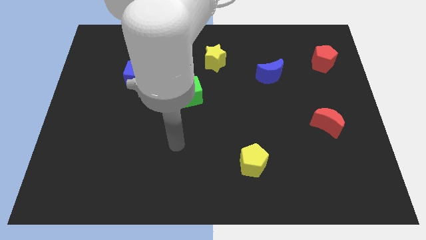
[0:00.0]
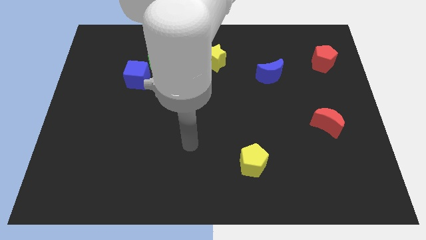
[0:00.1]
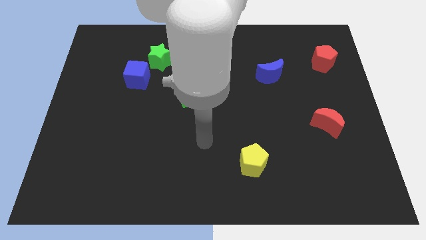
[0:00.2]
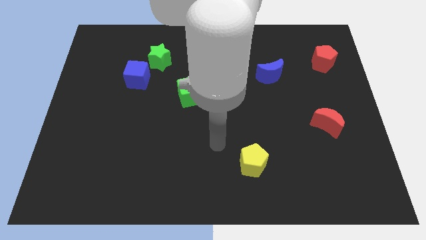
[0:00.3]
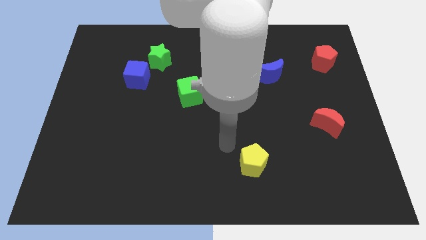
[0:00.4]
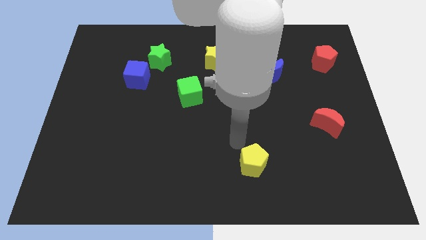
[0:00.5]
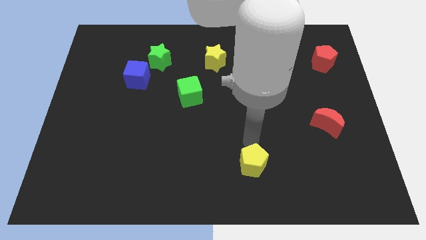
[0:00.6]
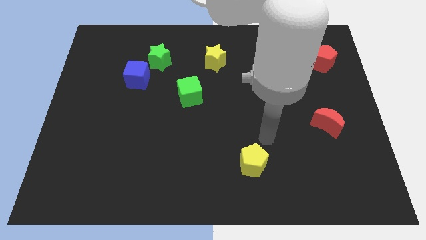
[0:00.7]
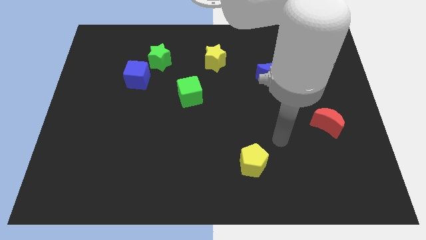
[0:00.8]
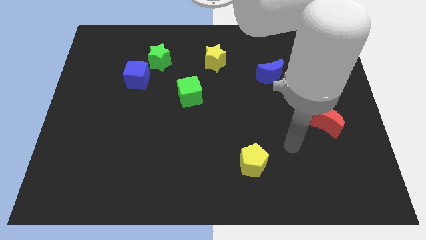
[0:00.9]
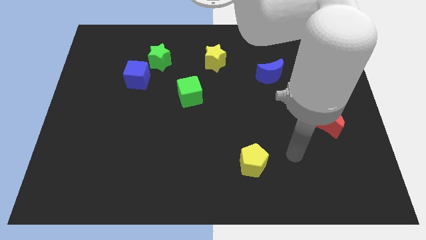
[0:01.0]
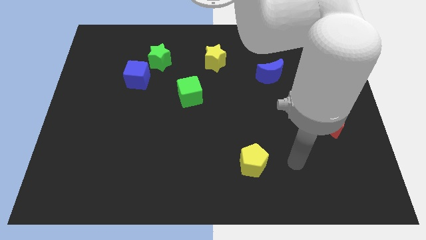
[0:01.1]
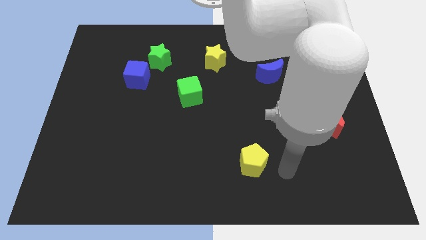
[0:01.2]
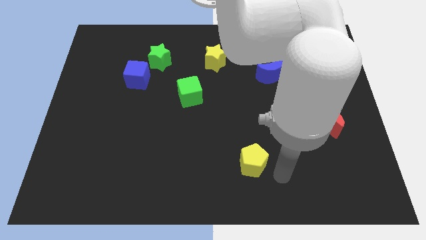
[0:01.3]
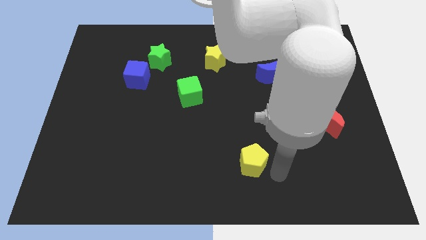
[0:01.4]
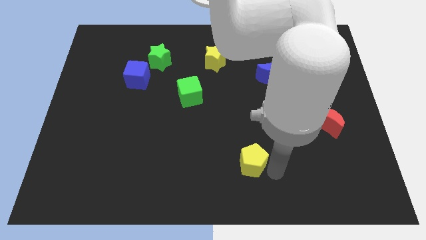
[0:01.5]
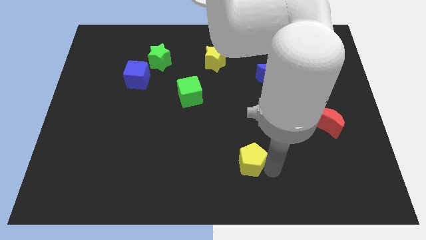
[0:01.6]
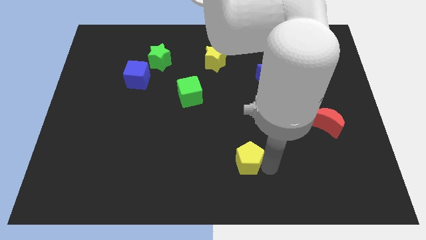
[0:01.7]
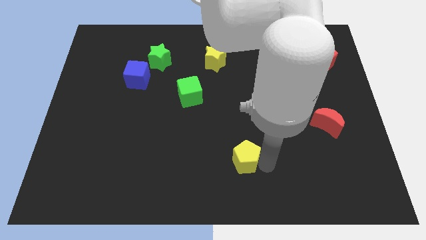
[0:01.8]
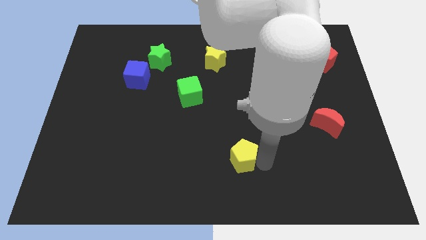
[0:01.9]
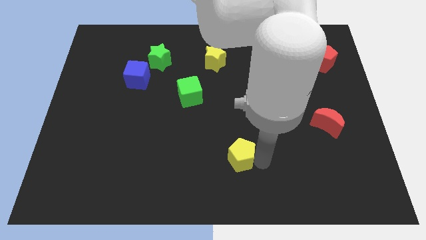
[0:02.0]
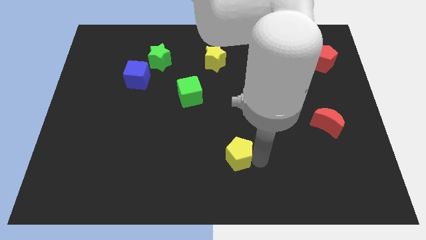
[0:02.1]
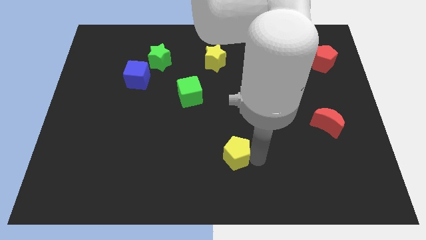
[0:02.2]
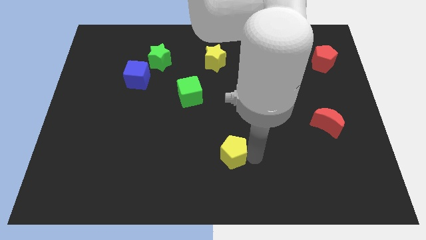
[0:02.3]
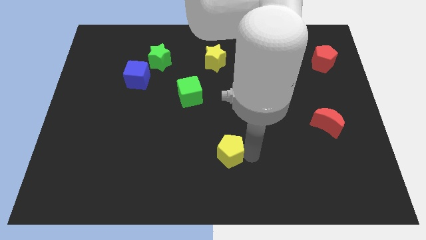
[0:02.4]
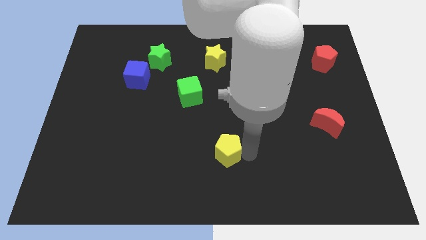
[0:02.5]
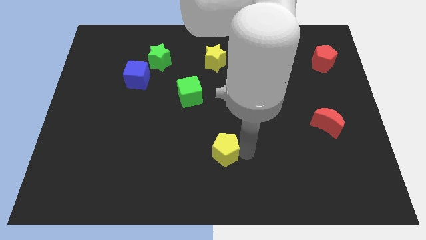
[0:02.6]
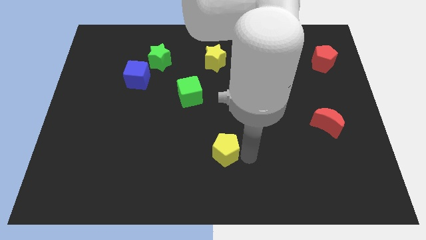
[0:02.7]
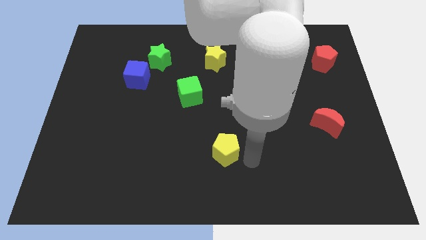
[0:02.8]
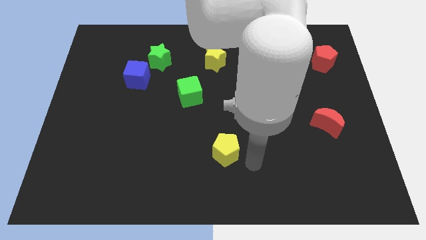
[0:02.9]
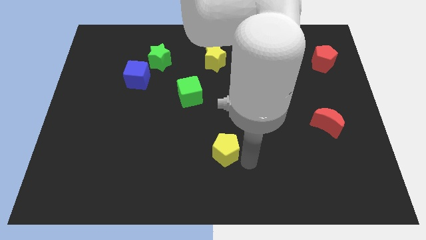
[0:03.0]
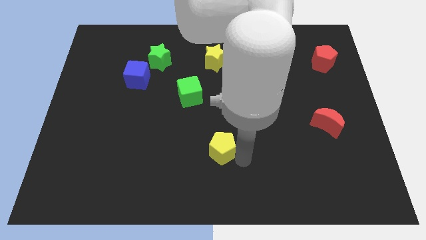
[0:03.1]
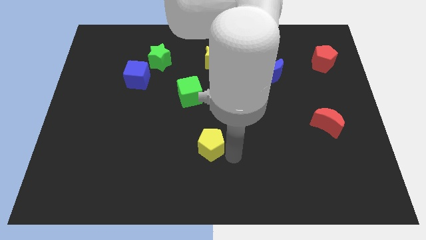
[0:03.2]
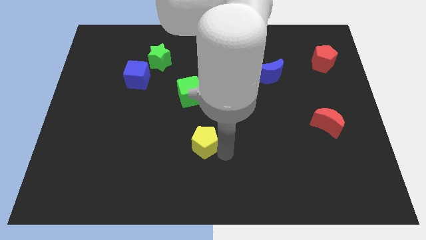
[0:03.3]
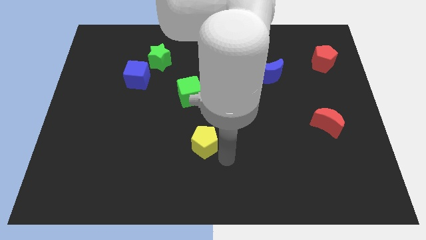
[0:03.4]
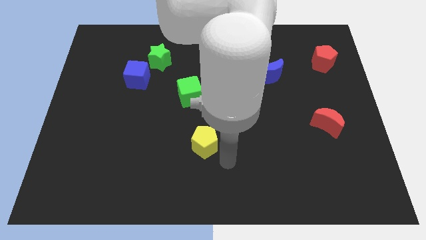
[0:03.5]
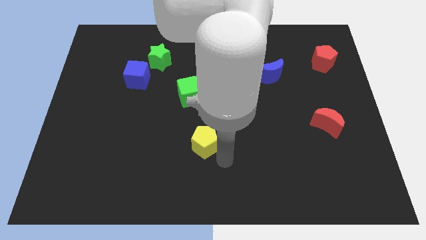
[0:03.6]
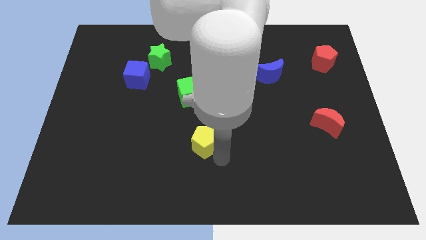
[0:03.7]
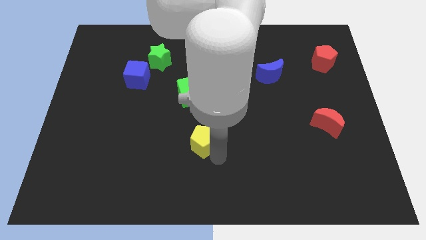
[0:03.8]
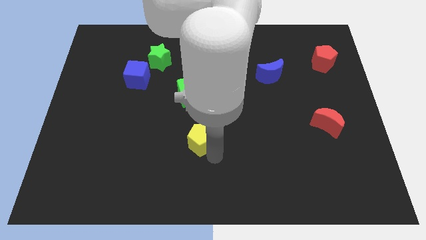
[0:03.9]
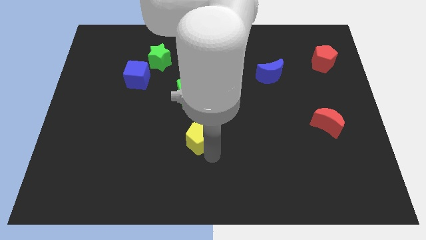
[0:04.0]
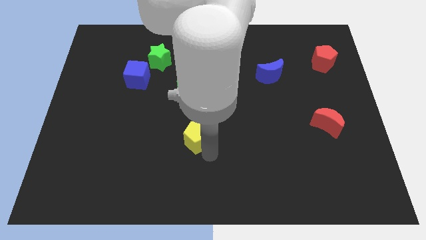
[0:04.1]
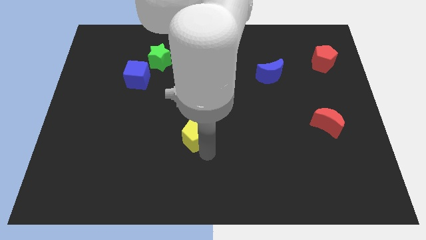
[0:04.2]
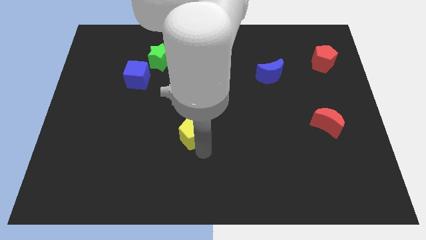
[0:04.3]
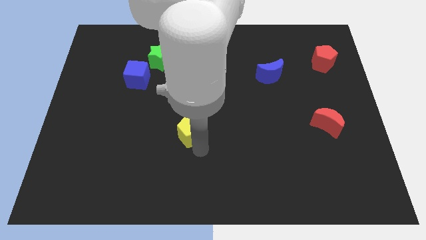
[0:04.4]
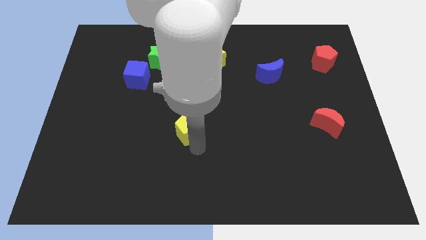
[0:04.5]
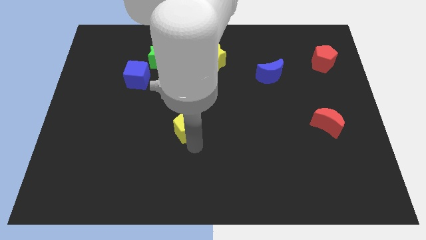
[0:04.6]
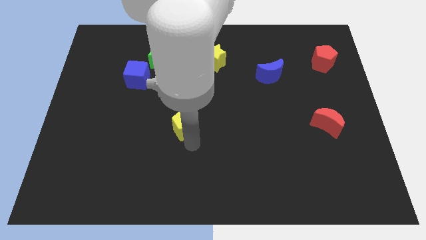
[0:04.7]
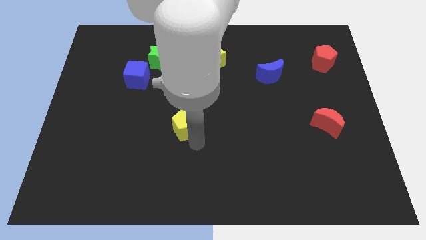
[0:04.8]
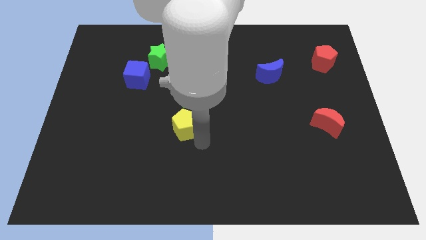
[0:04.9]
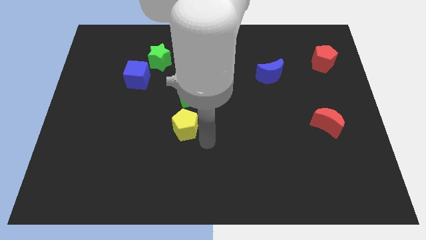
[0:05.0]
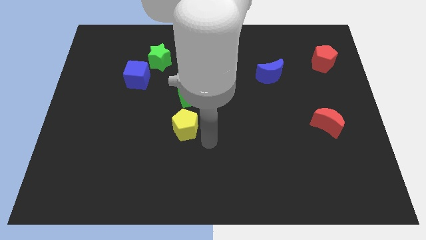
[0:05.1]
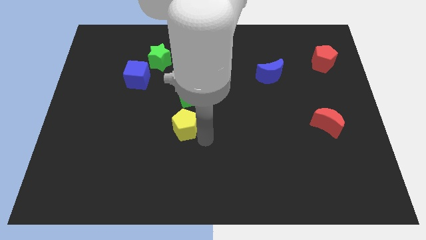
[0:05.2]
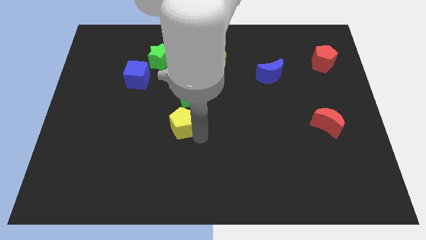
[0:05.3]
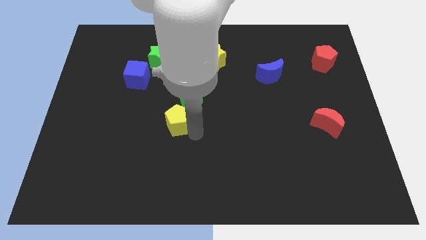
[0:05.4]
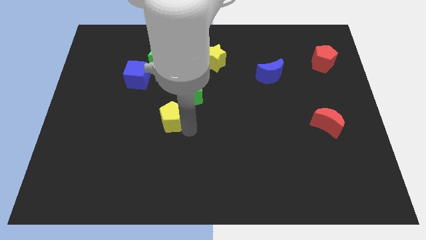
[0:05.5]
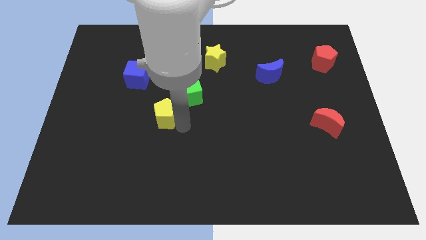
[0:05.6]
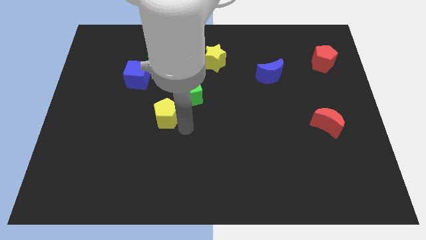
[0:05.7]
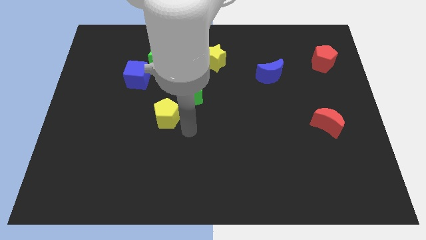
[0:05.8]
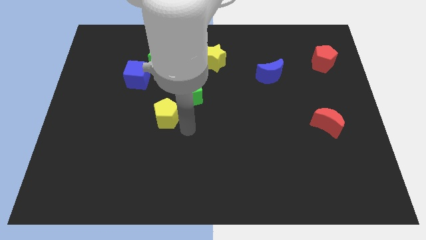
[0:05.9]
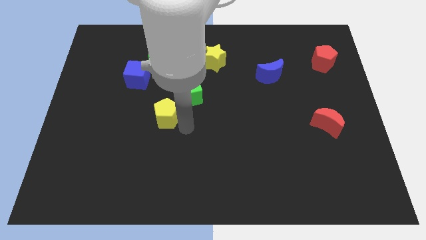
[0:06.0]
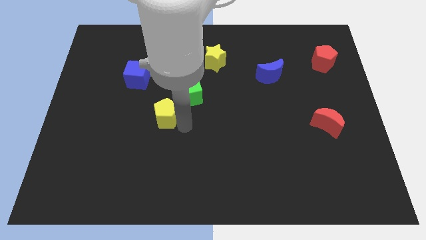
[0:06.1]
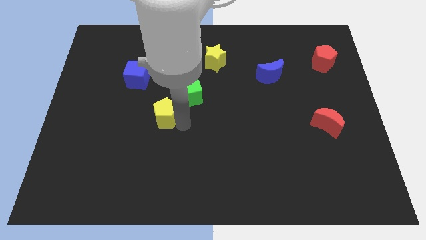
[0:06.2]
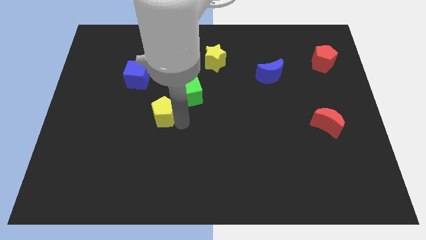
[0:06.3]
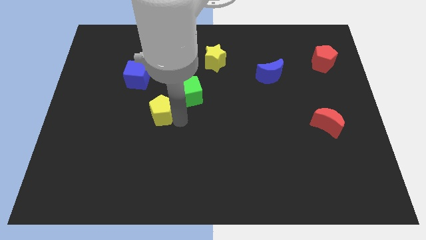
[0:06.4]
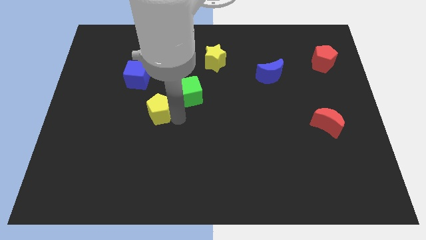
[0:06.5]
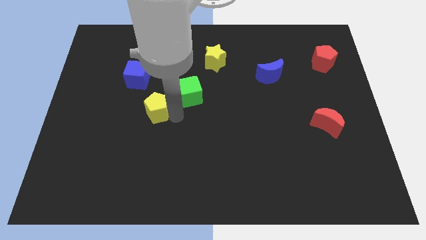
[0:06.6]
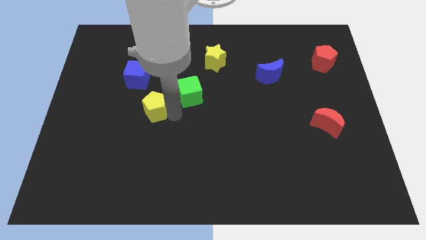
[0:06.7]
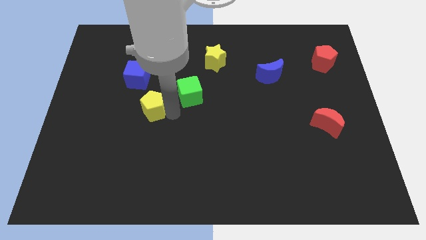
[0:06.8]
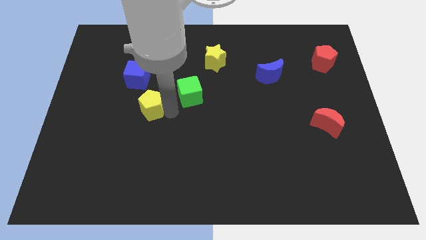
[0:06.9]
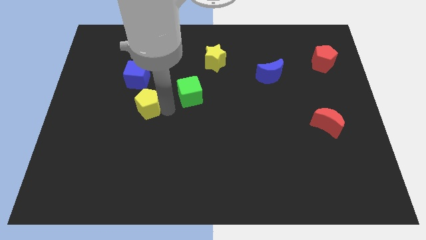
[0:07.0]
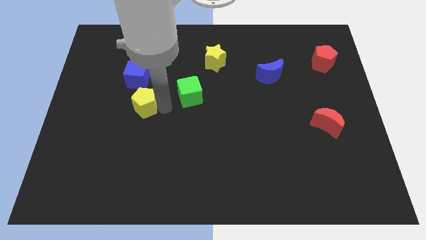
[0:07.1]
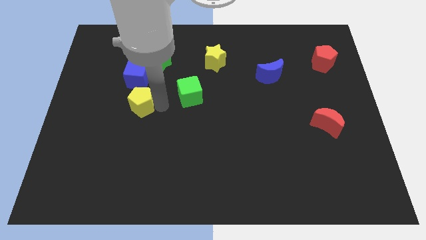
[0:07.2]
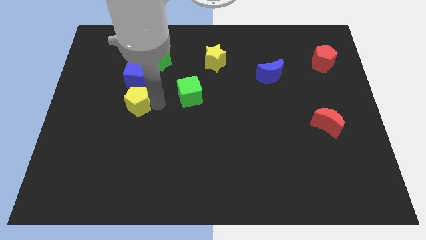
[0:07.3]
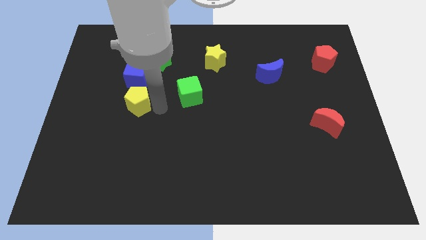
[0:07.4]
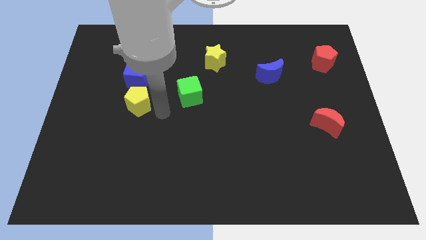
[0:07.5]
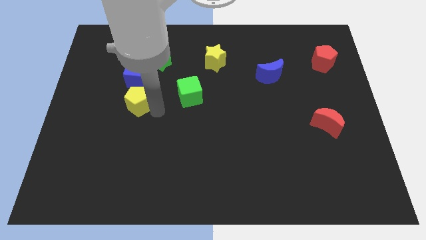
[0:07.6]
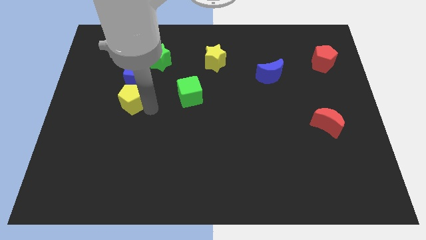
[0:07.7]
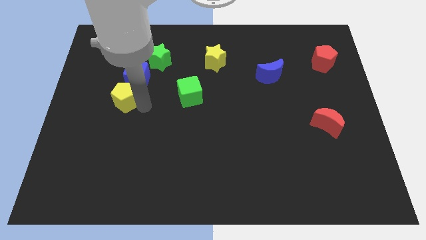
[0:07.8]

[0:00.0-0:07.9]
put the yellow pentagon to the bottom left of the blue cube
